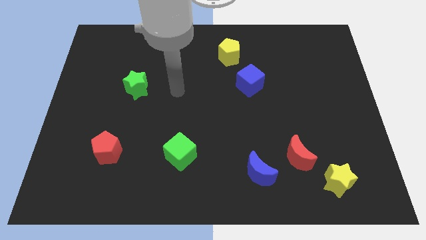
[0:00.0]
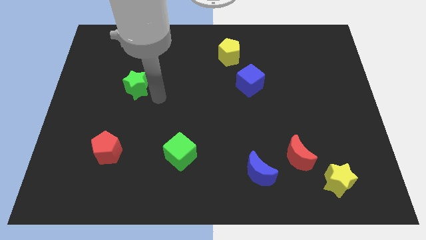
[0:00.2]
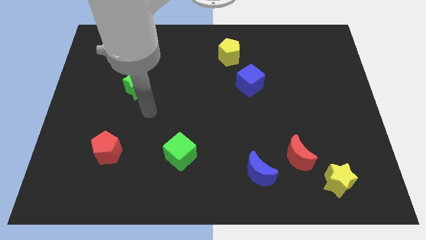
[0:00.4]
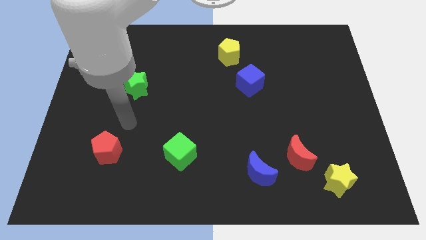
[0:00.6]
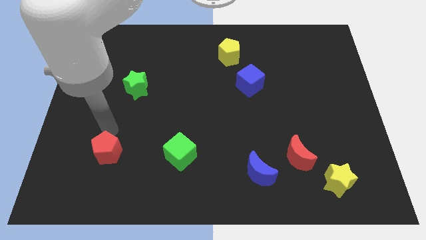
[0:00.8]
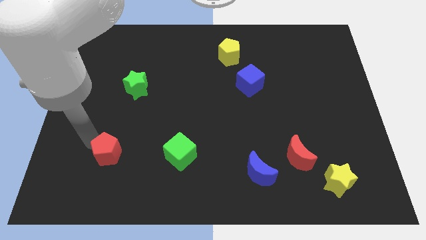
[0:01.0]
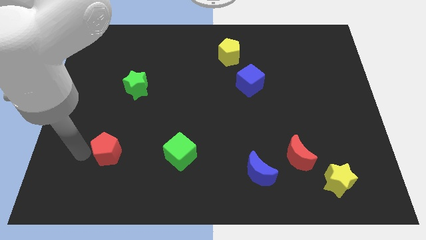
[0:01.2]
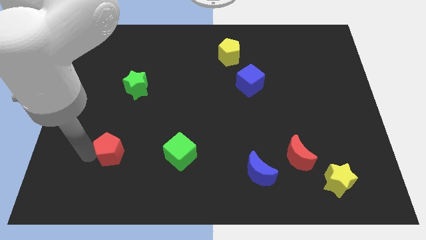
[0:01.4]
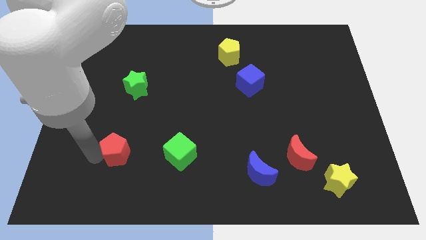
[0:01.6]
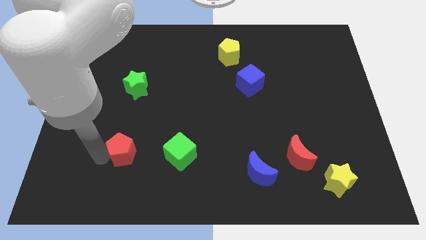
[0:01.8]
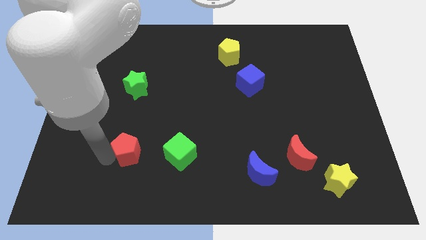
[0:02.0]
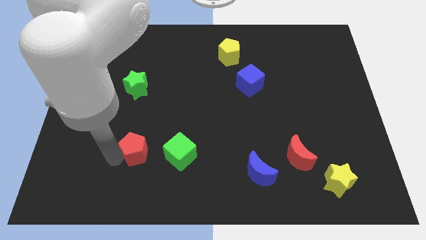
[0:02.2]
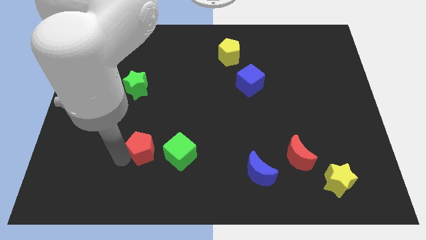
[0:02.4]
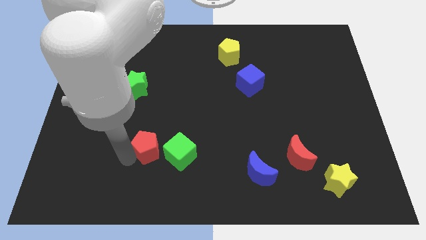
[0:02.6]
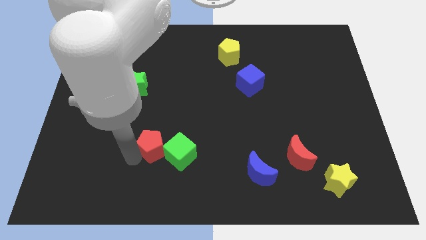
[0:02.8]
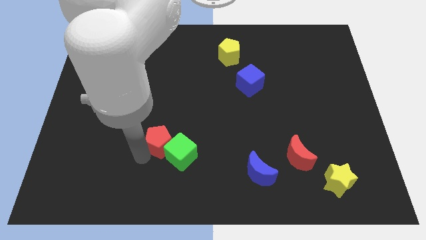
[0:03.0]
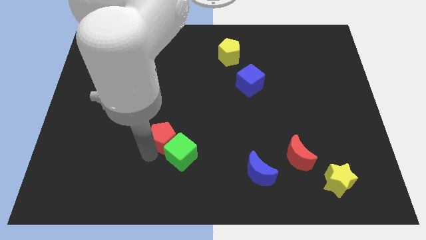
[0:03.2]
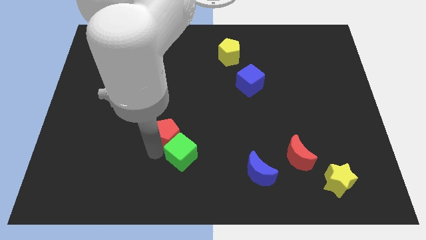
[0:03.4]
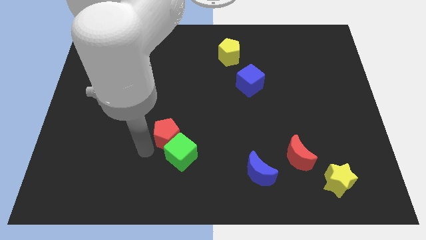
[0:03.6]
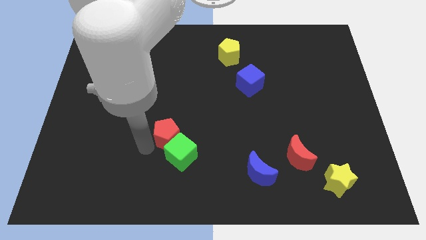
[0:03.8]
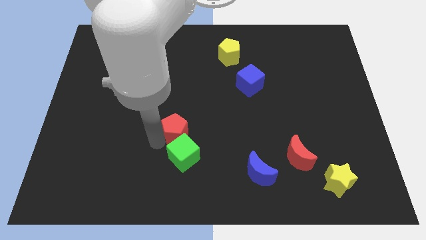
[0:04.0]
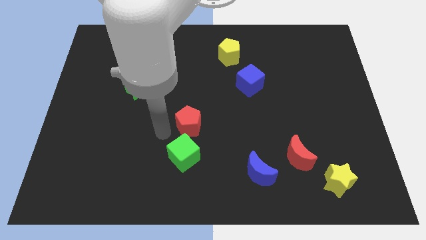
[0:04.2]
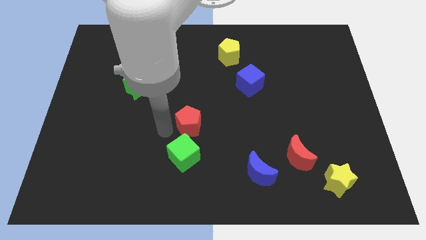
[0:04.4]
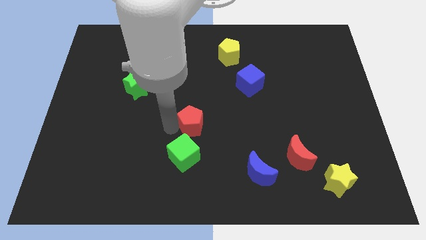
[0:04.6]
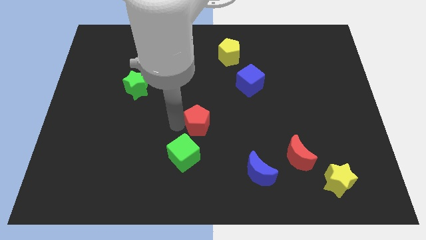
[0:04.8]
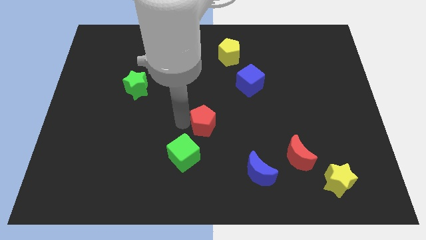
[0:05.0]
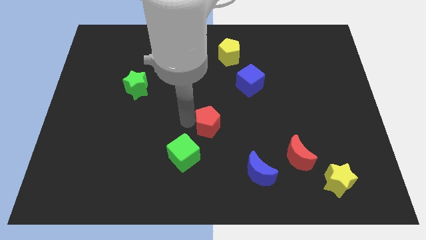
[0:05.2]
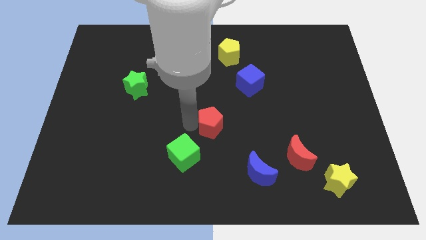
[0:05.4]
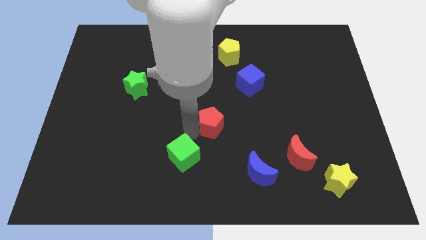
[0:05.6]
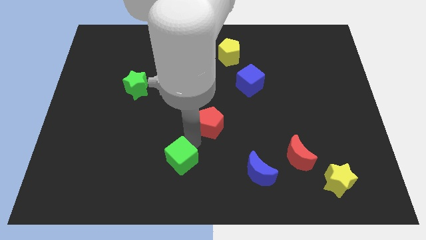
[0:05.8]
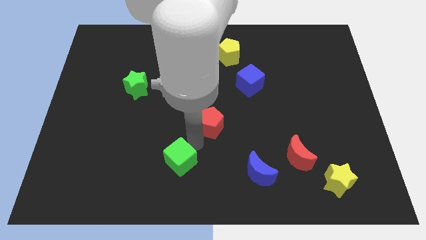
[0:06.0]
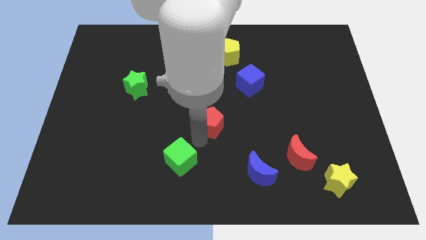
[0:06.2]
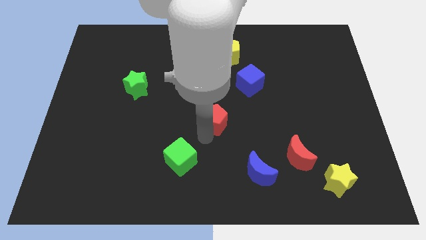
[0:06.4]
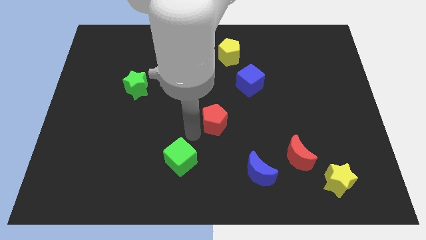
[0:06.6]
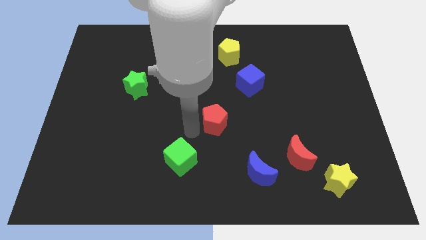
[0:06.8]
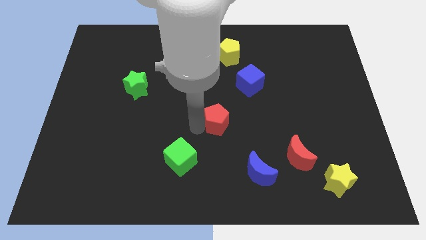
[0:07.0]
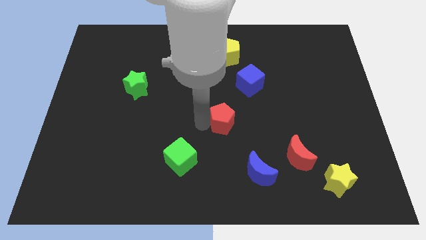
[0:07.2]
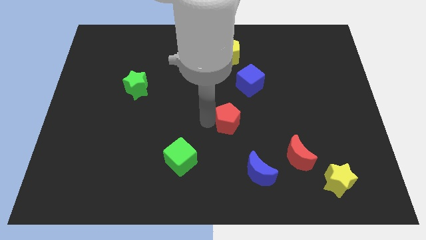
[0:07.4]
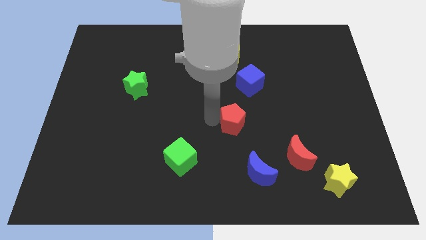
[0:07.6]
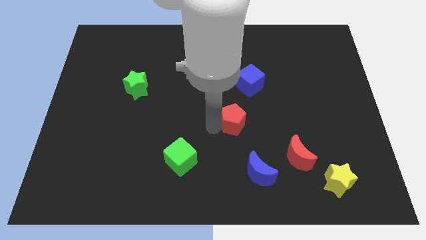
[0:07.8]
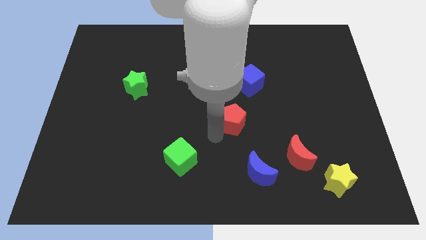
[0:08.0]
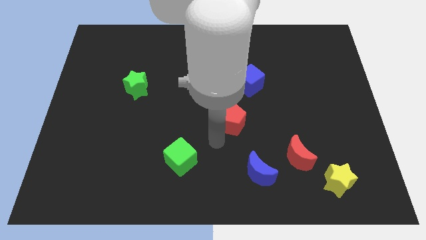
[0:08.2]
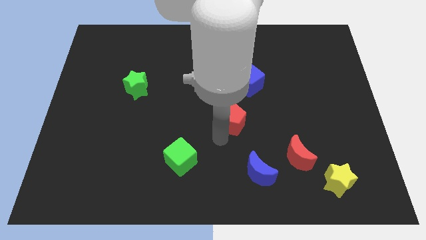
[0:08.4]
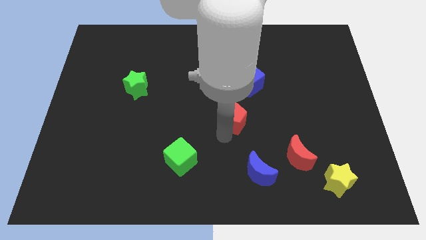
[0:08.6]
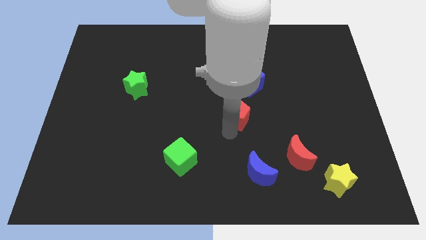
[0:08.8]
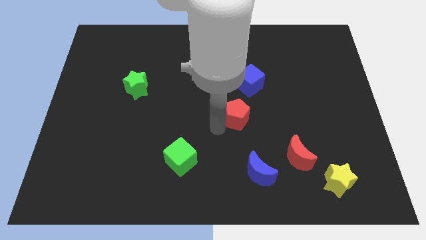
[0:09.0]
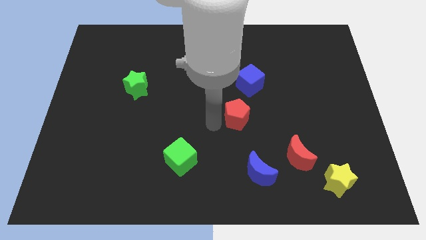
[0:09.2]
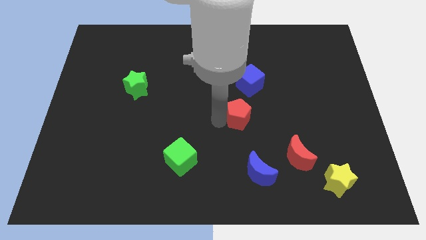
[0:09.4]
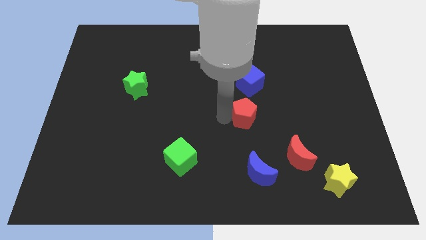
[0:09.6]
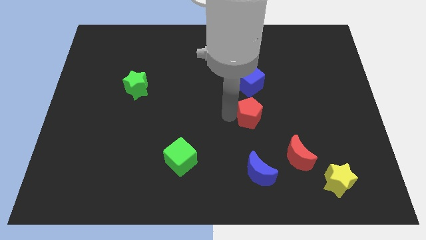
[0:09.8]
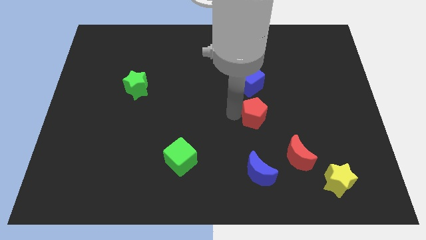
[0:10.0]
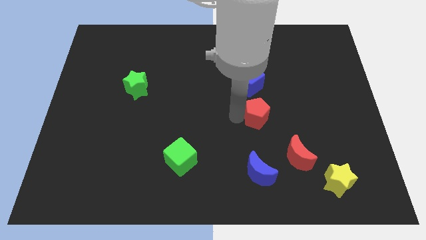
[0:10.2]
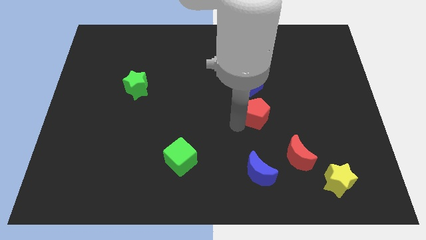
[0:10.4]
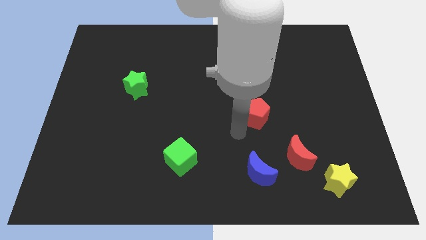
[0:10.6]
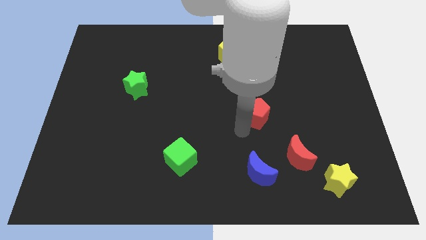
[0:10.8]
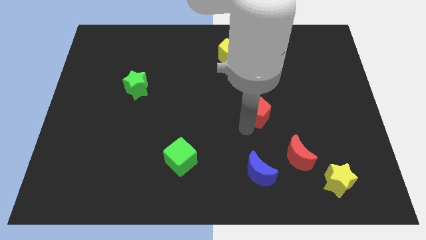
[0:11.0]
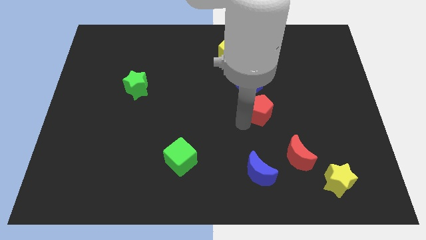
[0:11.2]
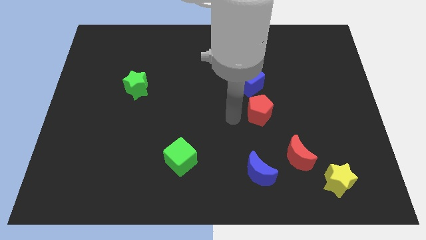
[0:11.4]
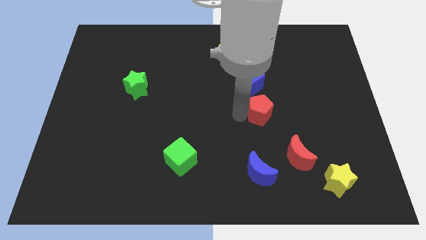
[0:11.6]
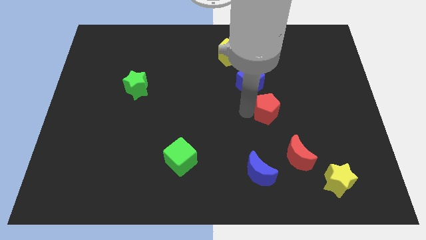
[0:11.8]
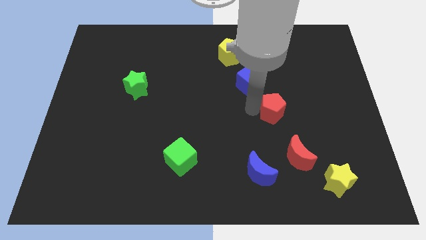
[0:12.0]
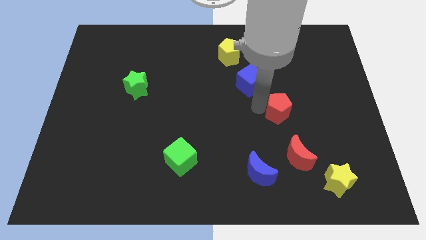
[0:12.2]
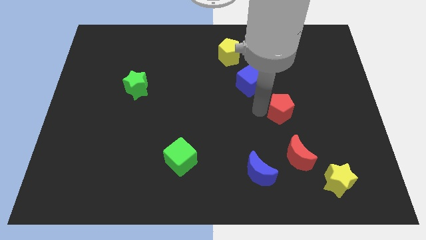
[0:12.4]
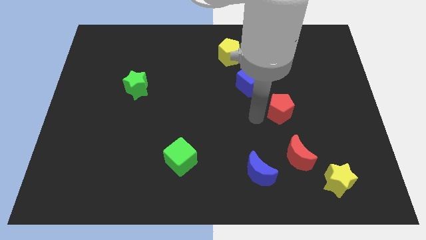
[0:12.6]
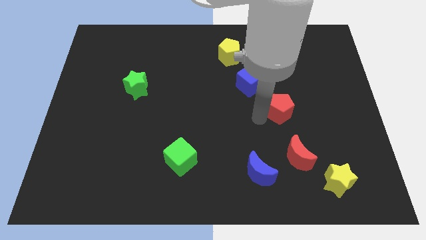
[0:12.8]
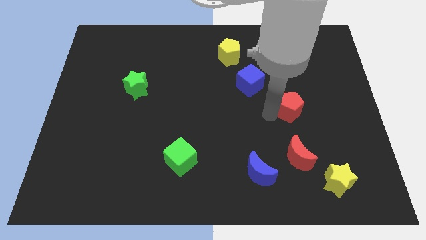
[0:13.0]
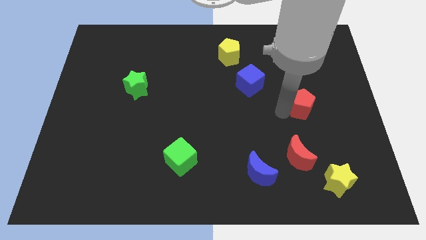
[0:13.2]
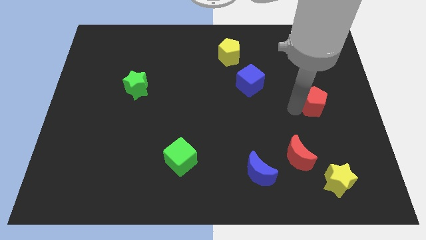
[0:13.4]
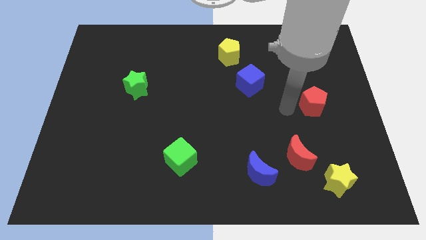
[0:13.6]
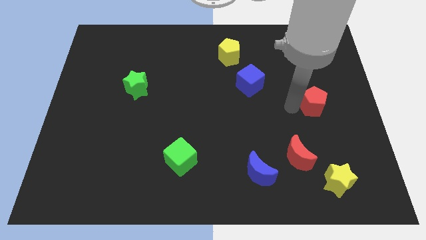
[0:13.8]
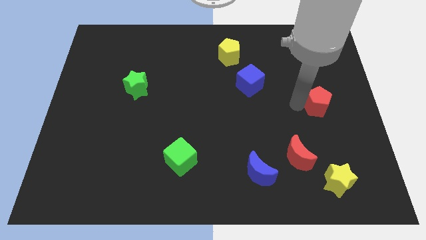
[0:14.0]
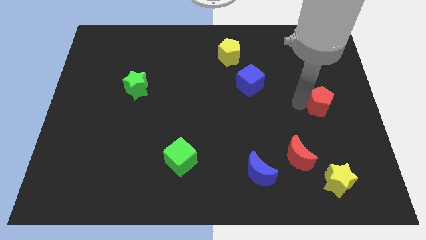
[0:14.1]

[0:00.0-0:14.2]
move the red pentagon to the right side of the board
